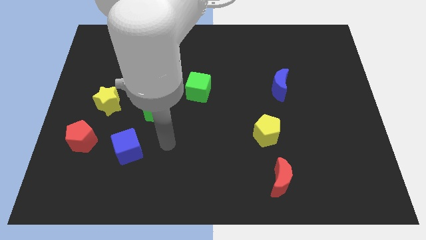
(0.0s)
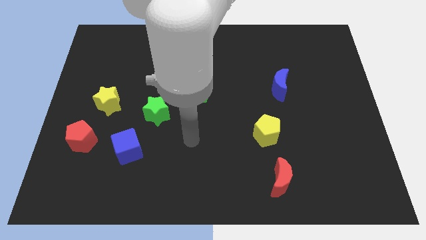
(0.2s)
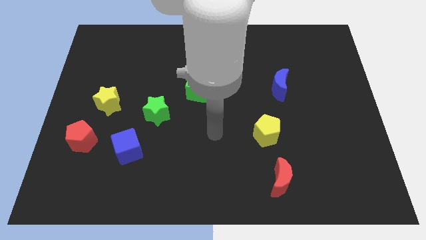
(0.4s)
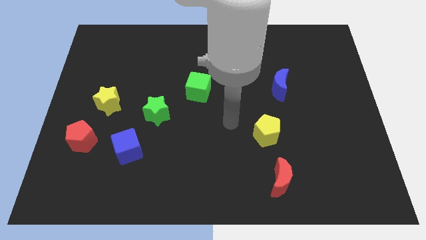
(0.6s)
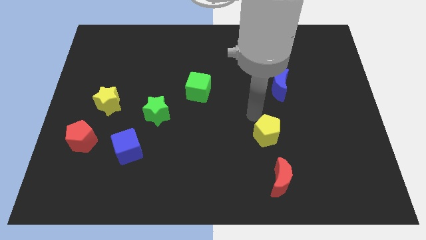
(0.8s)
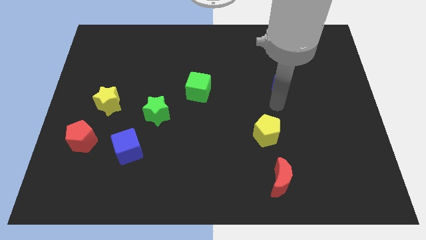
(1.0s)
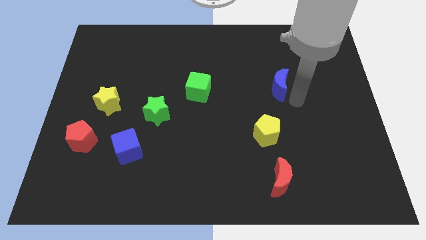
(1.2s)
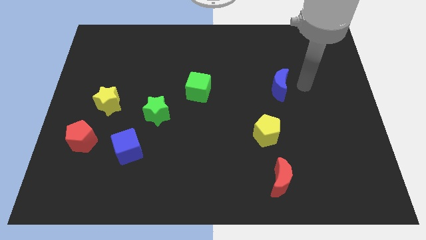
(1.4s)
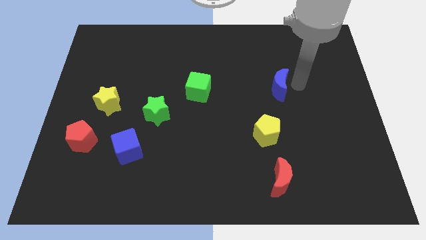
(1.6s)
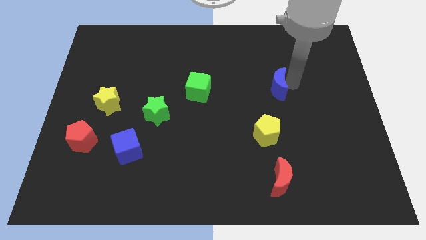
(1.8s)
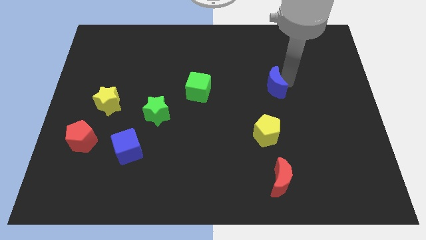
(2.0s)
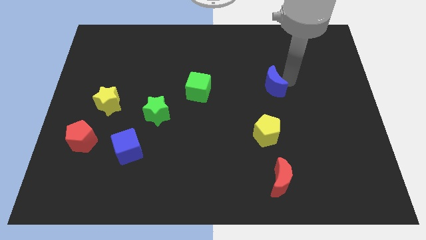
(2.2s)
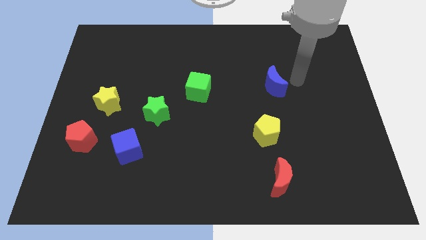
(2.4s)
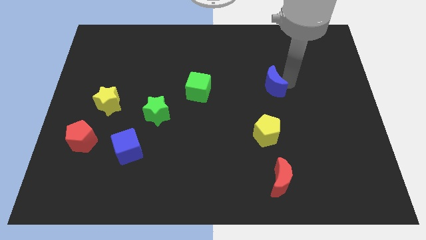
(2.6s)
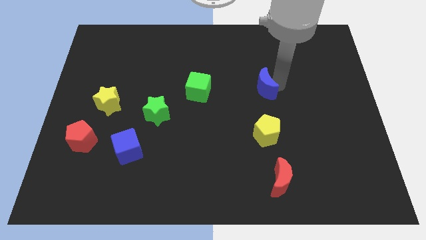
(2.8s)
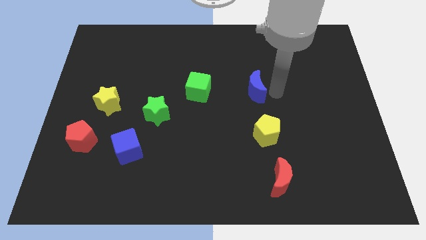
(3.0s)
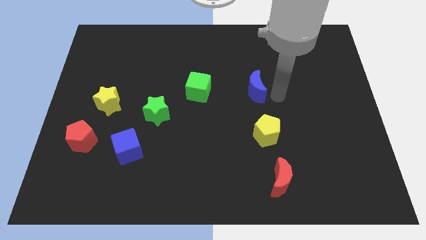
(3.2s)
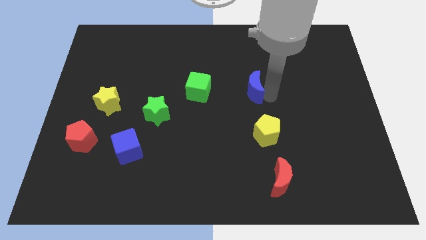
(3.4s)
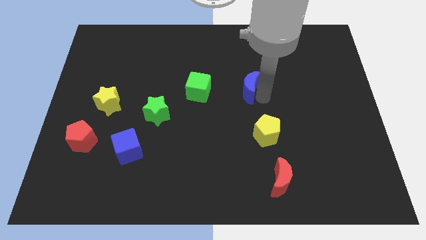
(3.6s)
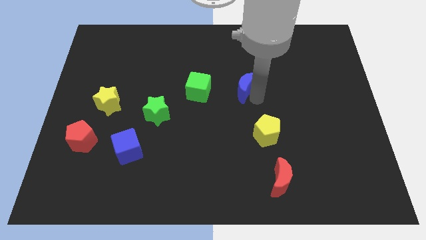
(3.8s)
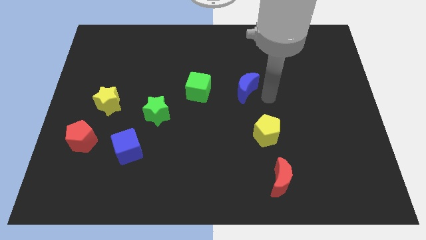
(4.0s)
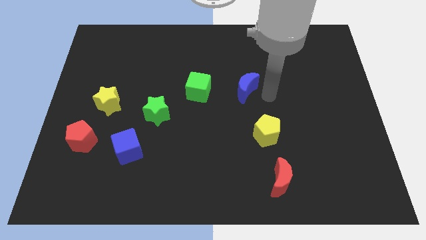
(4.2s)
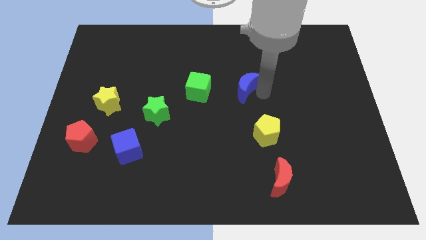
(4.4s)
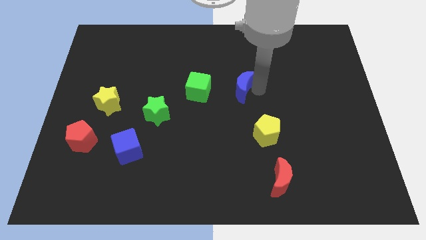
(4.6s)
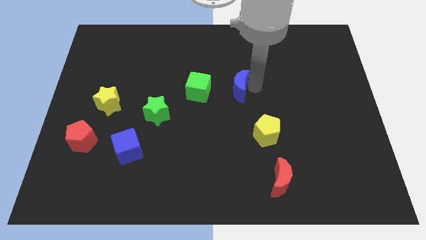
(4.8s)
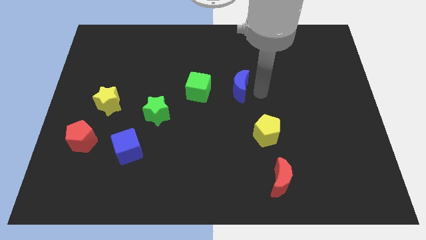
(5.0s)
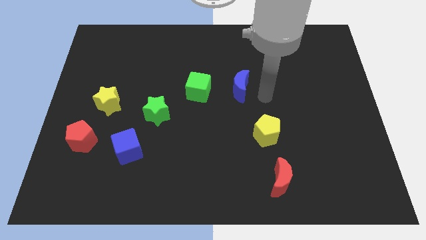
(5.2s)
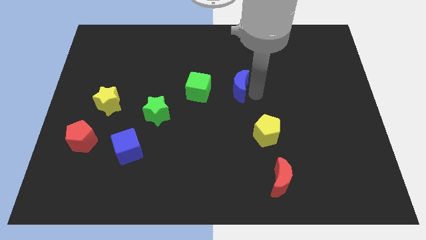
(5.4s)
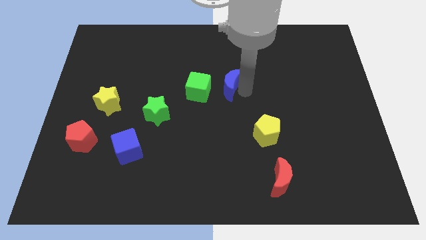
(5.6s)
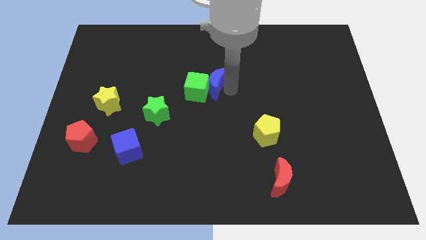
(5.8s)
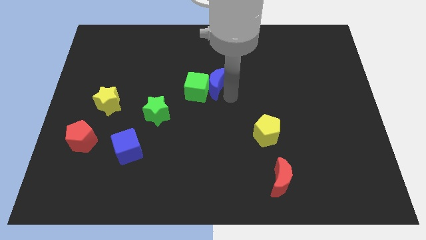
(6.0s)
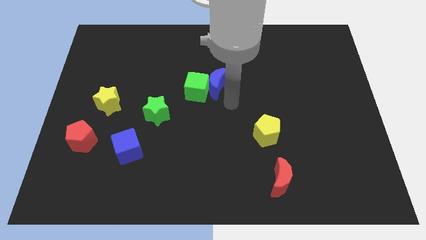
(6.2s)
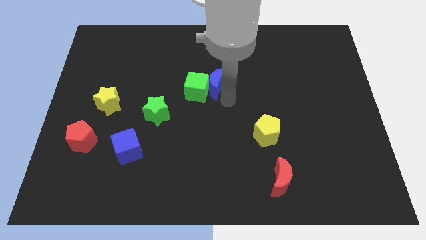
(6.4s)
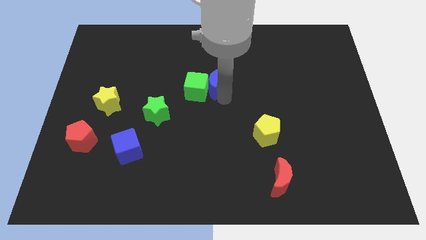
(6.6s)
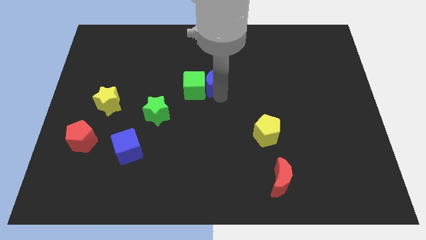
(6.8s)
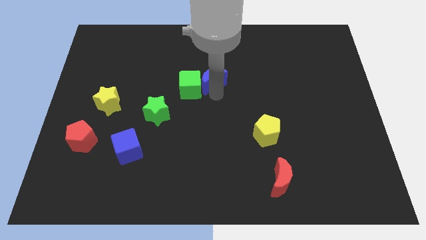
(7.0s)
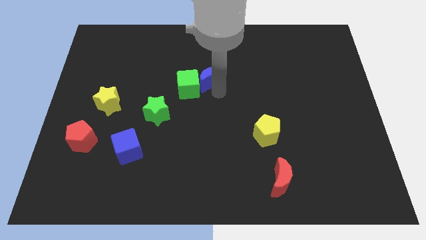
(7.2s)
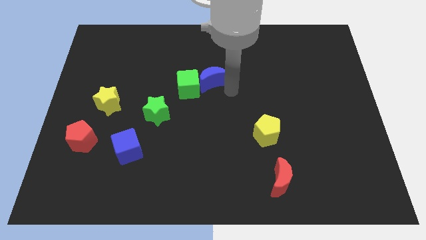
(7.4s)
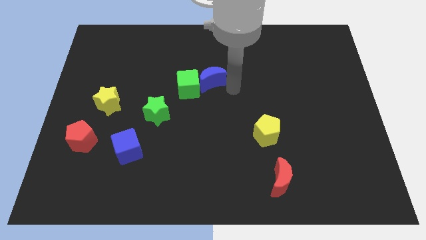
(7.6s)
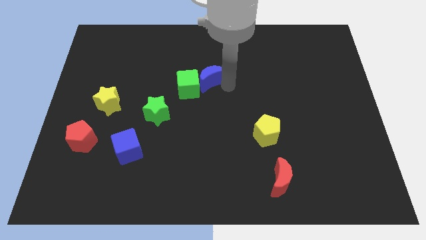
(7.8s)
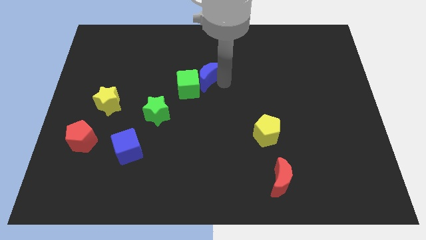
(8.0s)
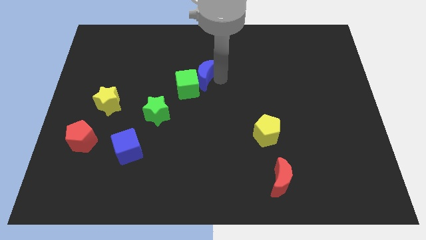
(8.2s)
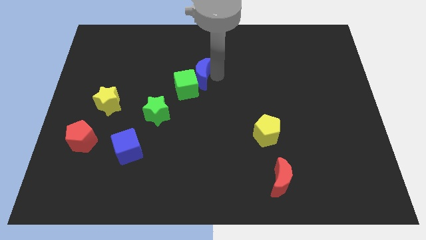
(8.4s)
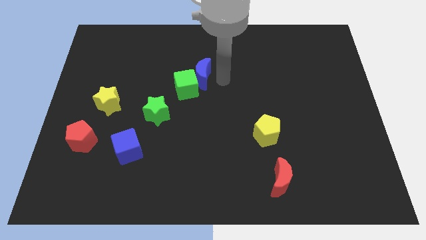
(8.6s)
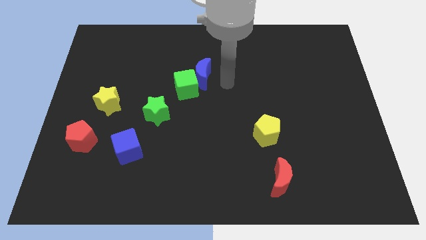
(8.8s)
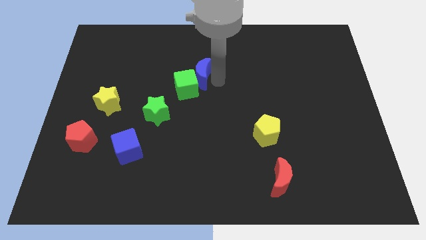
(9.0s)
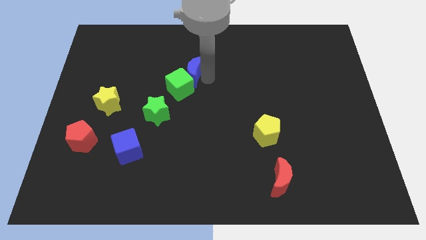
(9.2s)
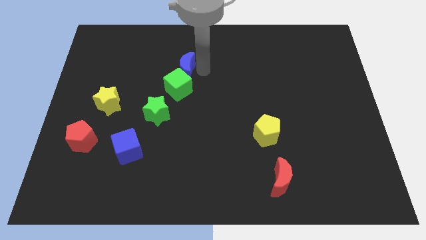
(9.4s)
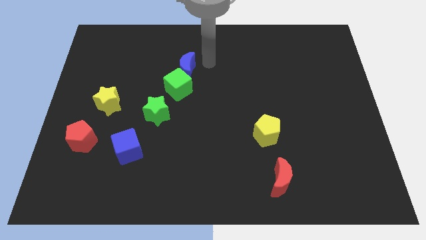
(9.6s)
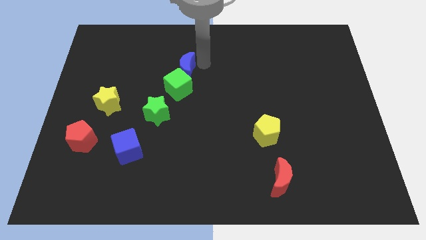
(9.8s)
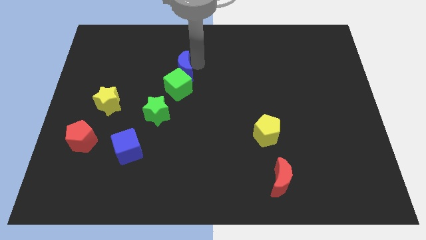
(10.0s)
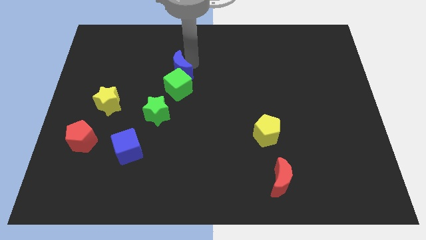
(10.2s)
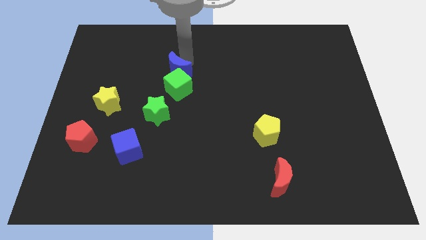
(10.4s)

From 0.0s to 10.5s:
slide the blue moon to the top side of the green star

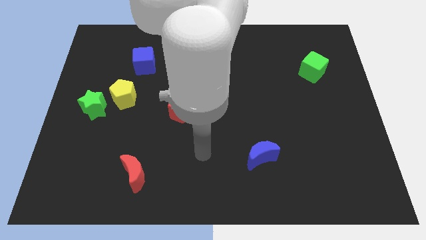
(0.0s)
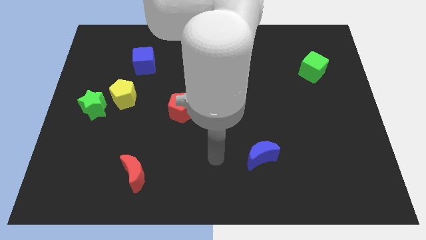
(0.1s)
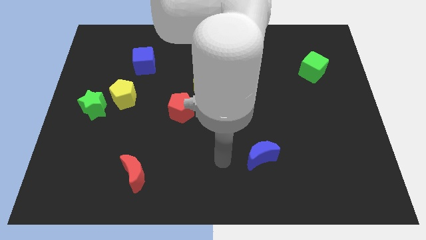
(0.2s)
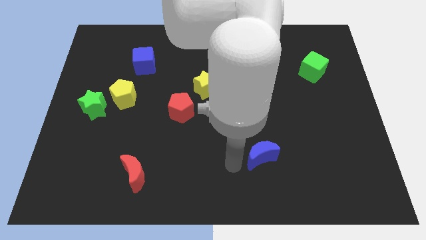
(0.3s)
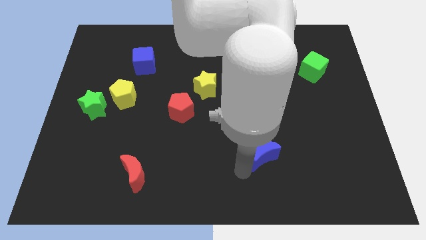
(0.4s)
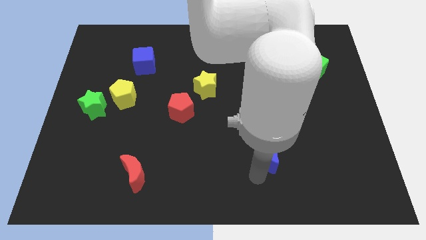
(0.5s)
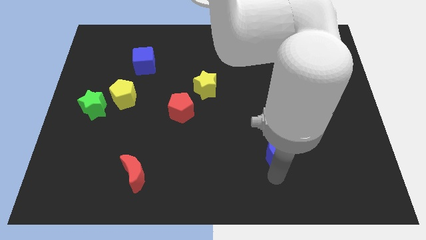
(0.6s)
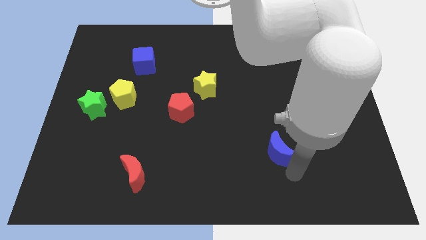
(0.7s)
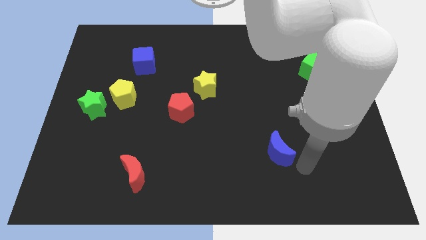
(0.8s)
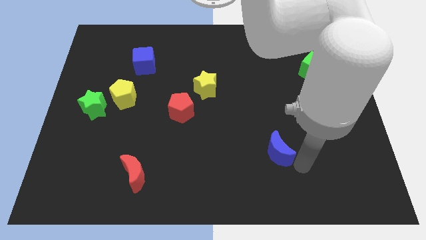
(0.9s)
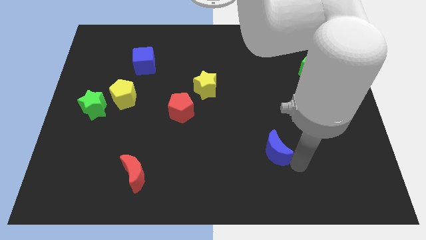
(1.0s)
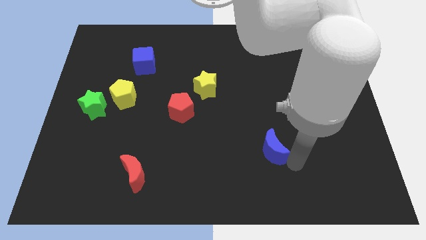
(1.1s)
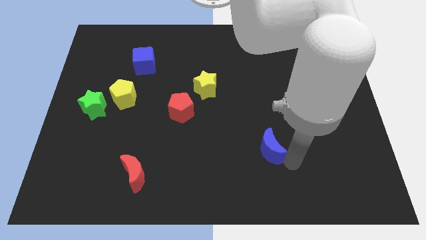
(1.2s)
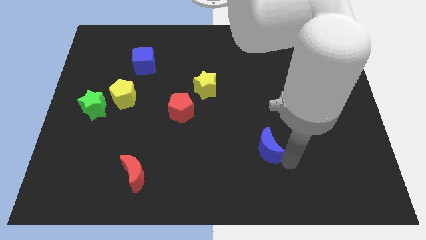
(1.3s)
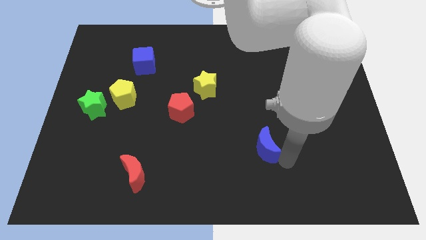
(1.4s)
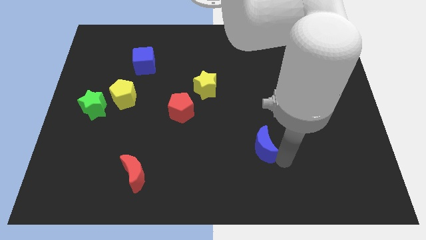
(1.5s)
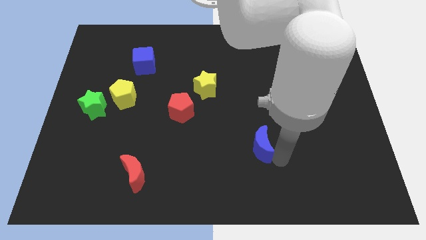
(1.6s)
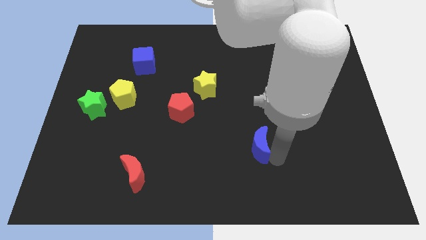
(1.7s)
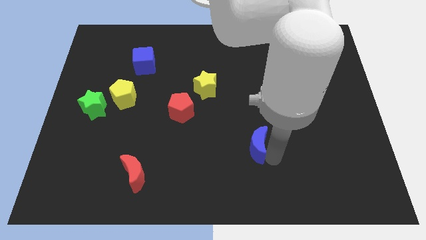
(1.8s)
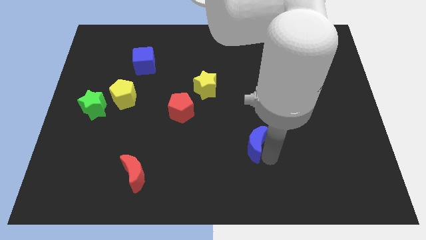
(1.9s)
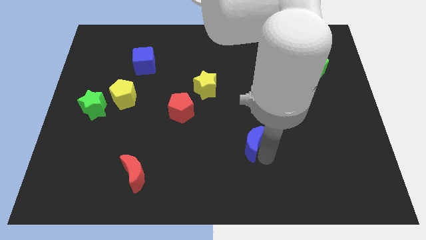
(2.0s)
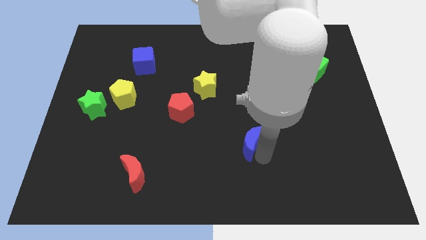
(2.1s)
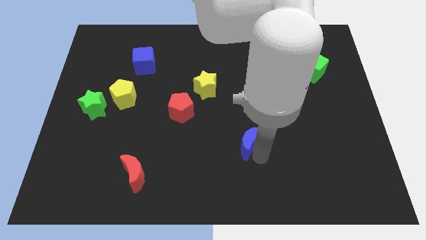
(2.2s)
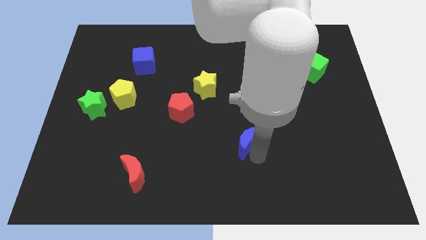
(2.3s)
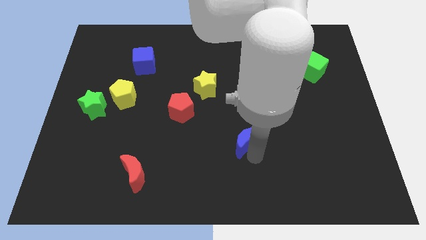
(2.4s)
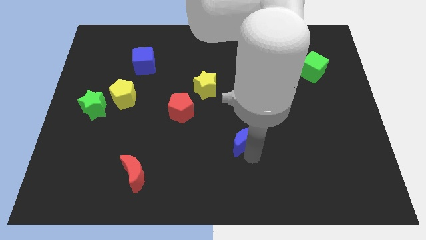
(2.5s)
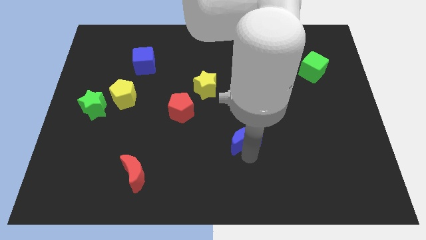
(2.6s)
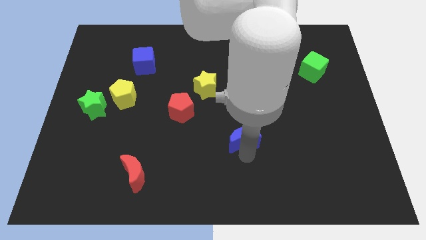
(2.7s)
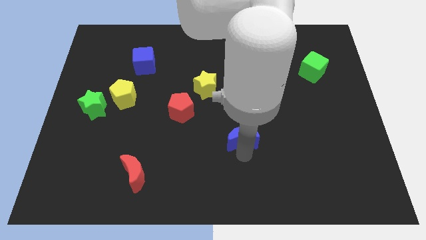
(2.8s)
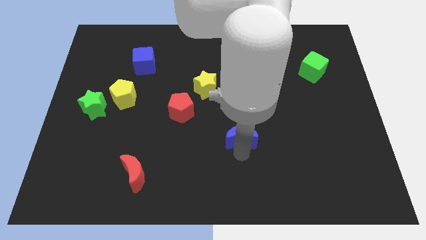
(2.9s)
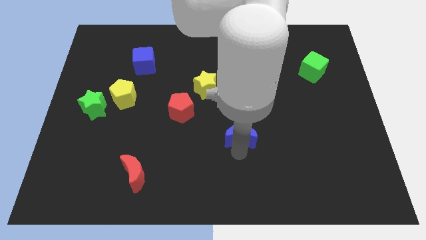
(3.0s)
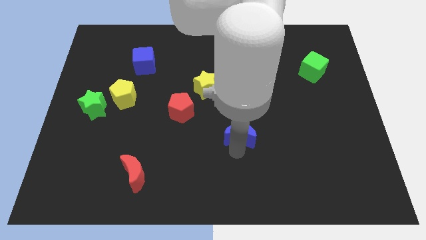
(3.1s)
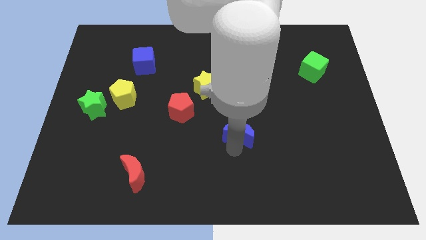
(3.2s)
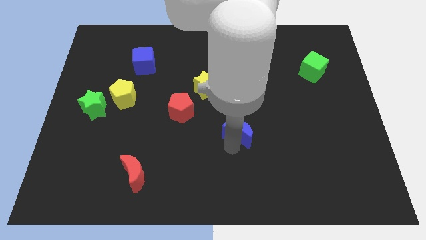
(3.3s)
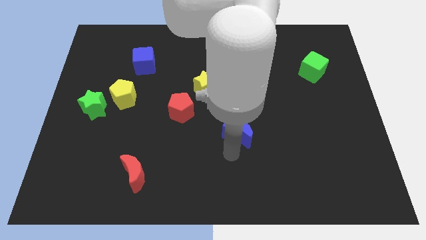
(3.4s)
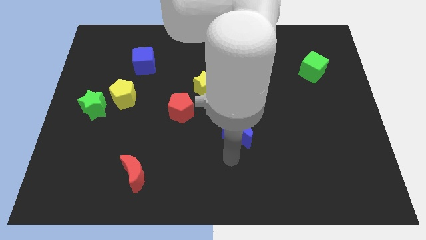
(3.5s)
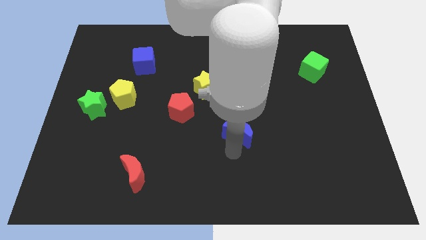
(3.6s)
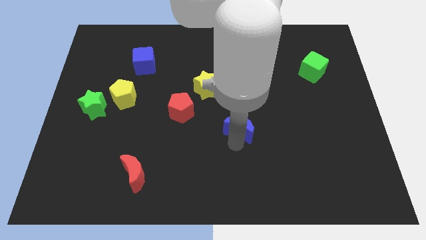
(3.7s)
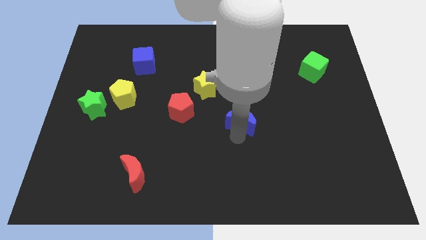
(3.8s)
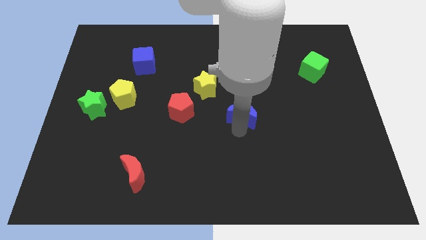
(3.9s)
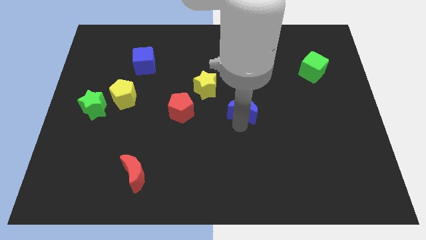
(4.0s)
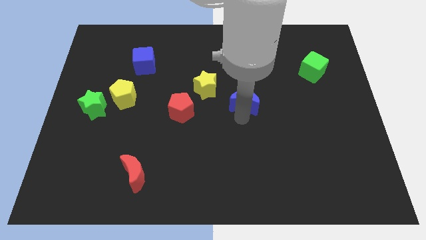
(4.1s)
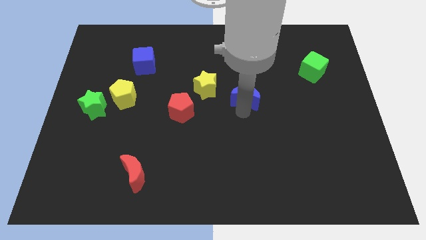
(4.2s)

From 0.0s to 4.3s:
put the blue moon to the right of the yellow star
